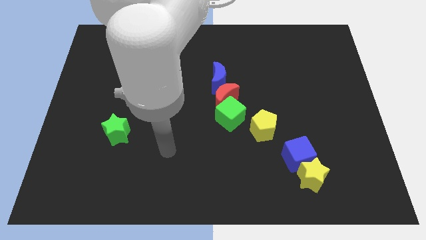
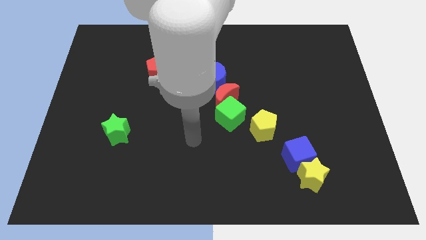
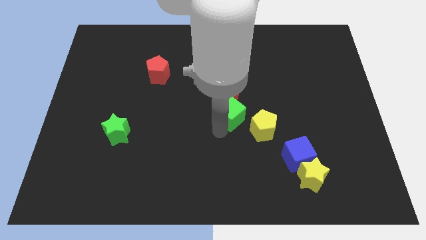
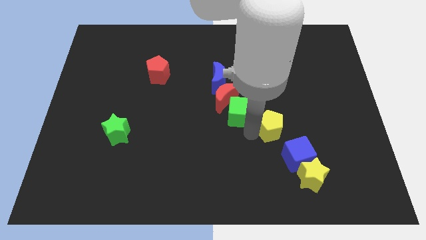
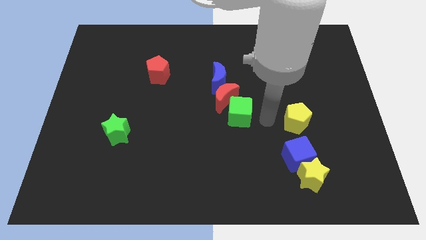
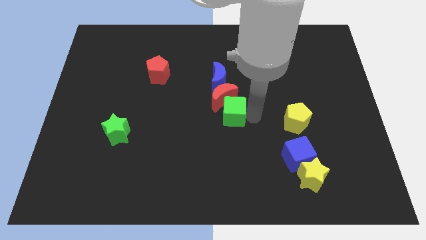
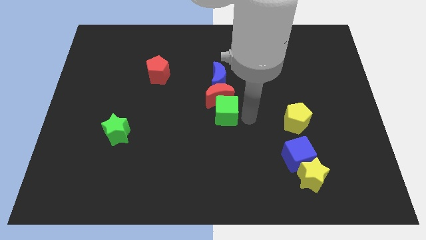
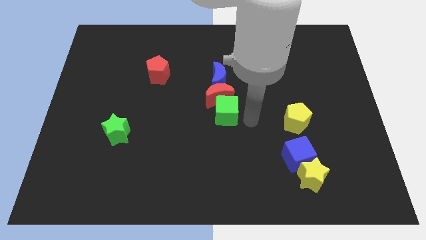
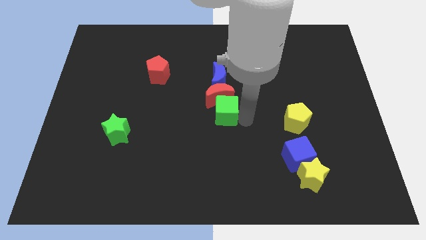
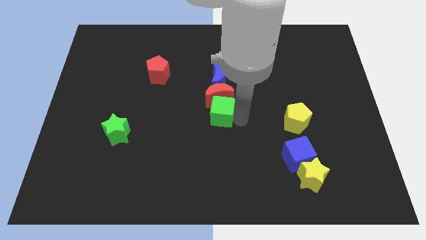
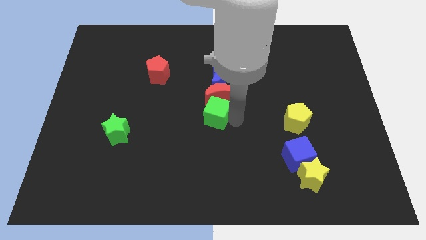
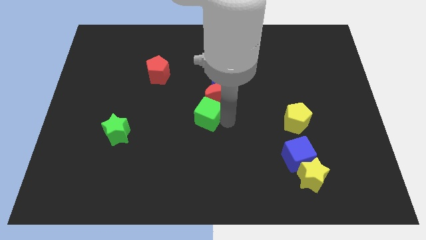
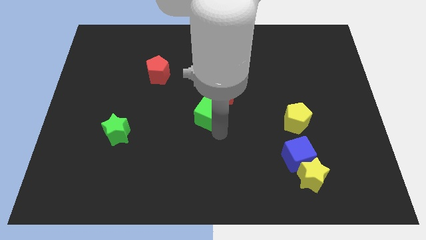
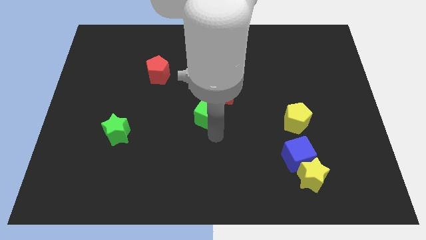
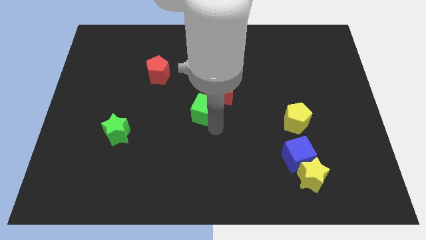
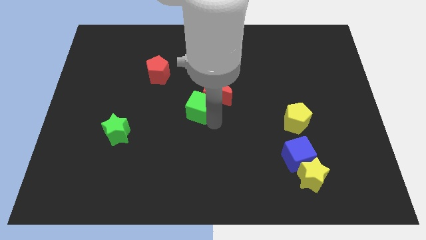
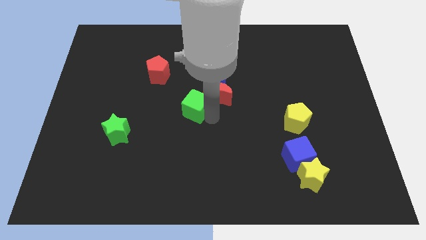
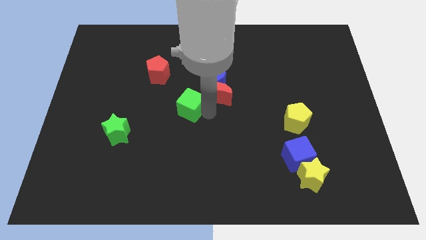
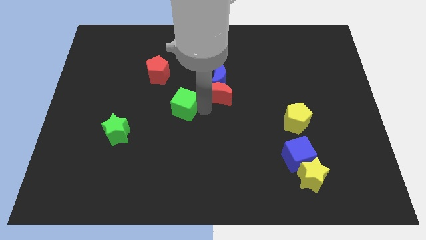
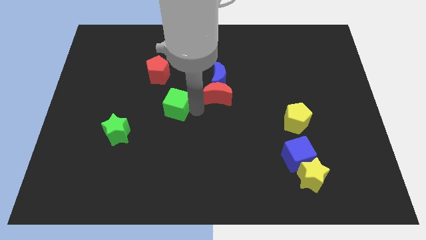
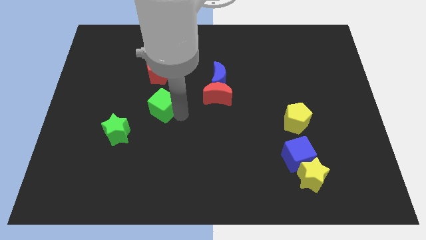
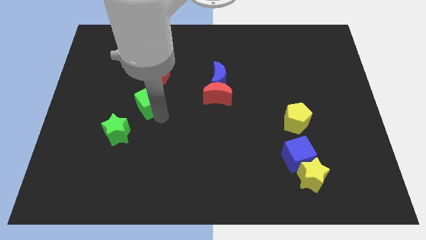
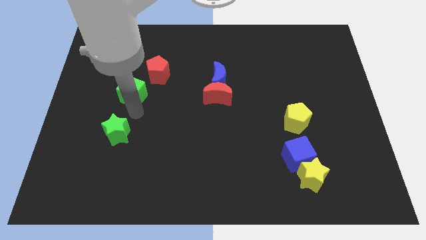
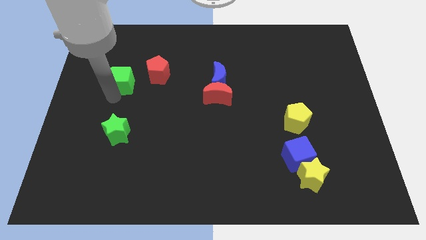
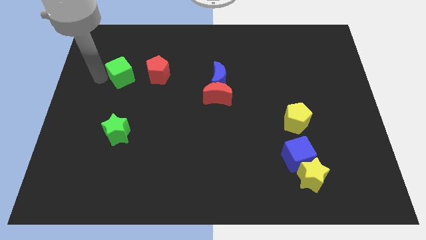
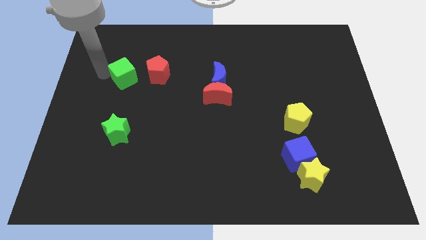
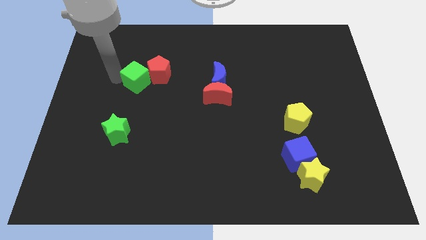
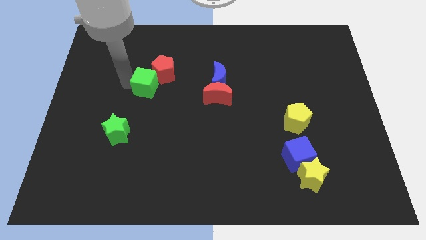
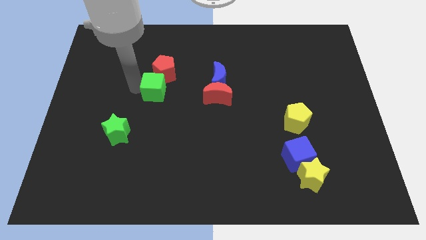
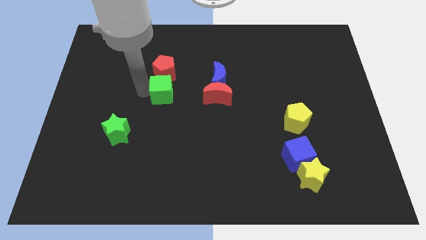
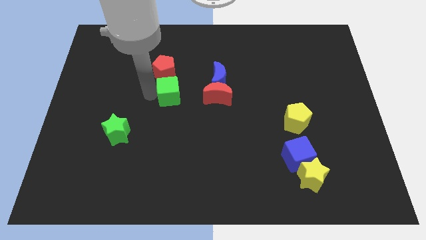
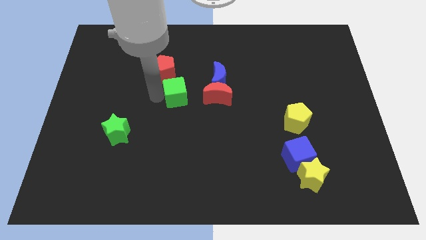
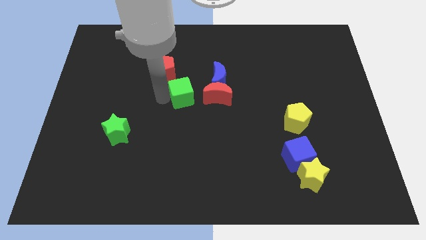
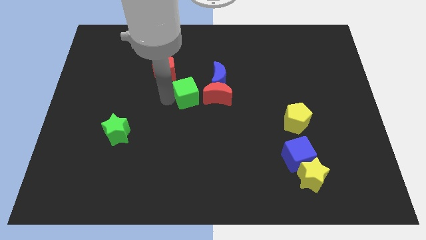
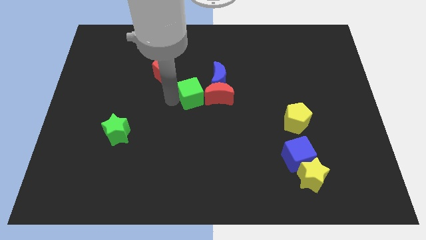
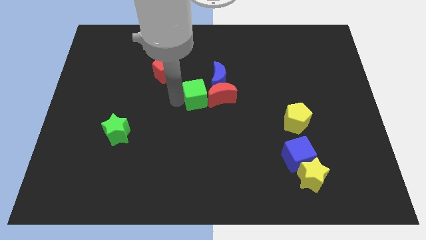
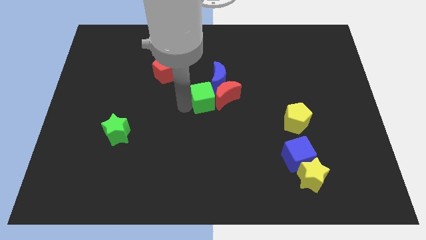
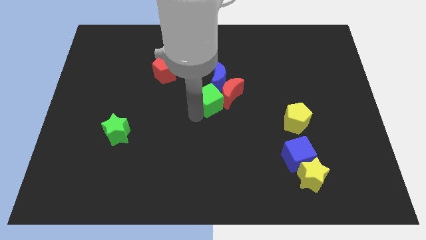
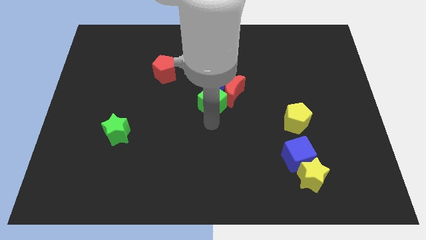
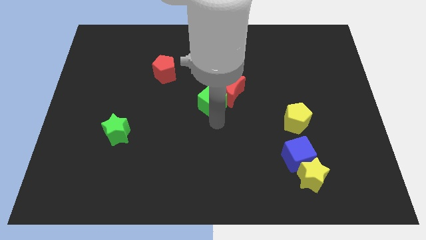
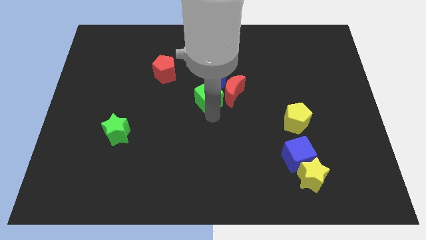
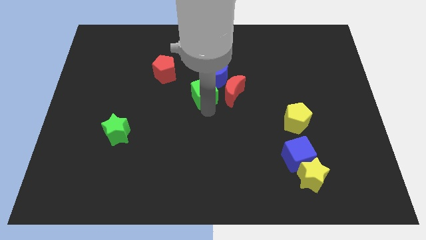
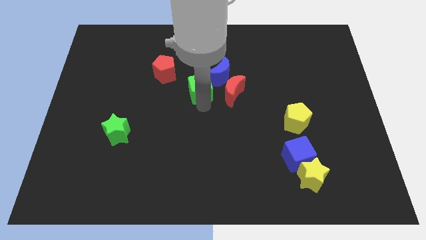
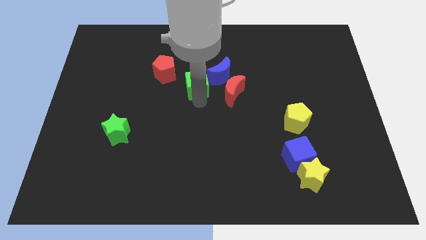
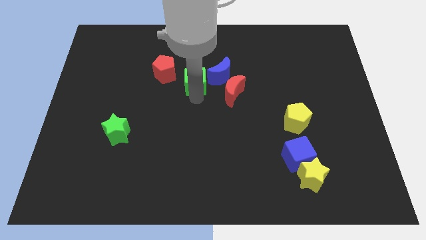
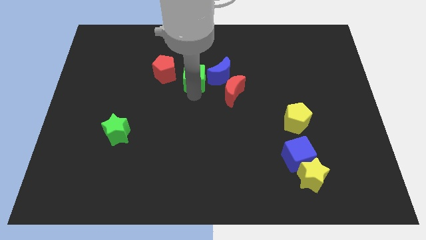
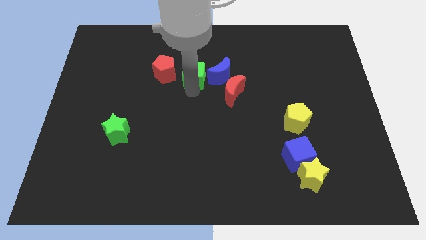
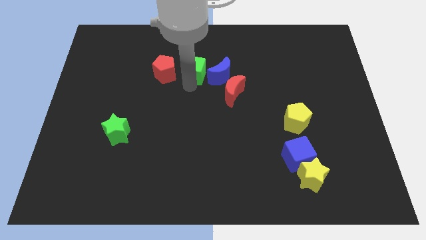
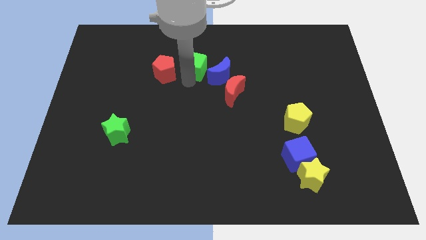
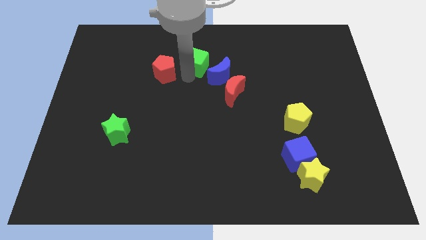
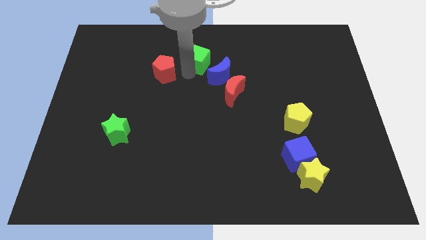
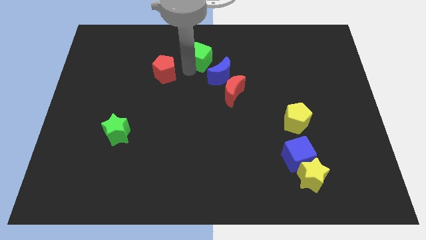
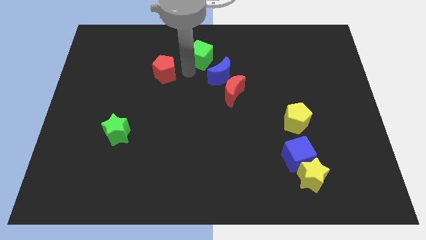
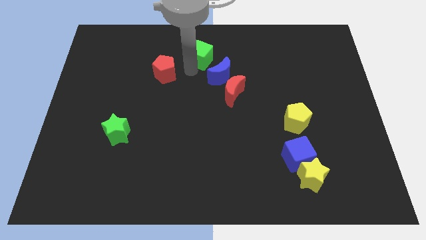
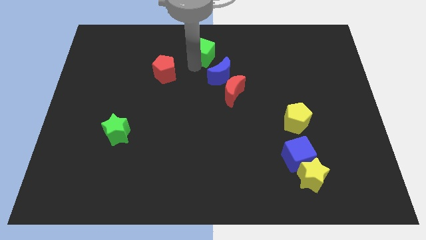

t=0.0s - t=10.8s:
push the green cube to the towards your base
